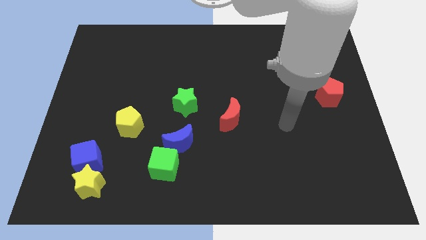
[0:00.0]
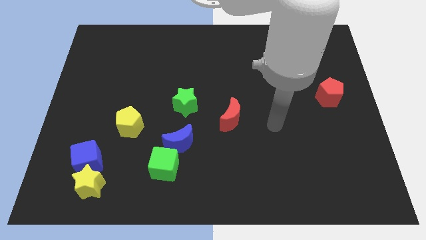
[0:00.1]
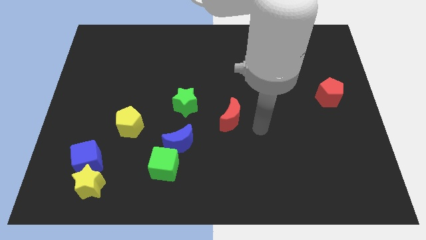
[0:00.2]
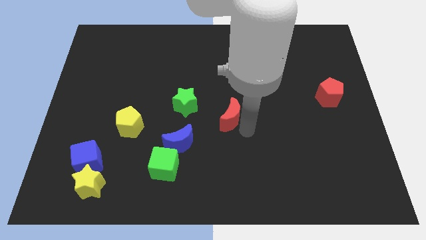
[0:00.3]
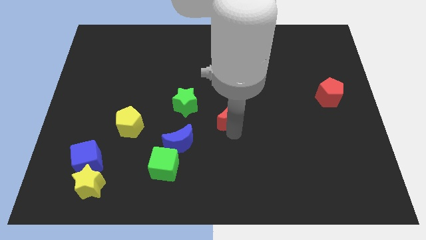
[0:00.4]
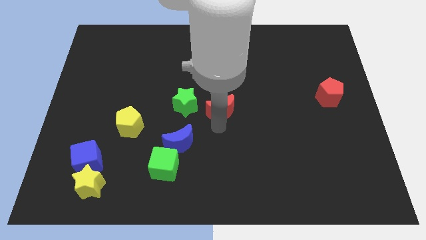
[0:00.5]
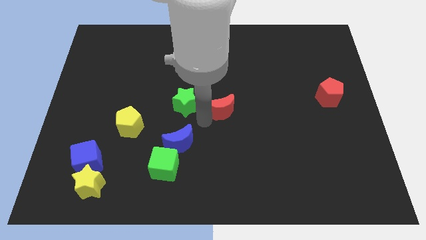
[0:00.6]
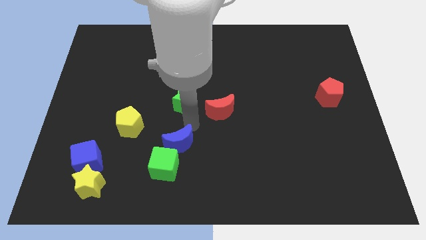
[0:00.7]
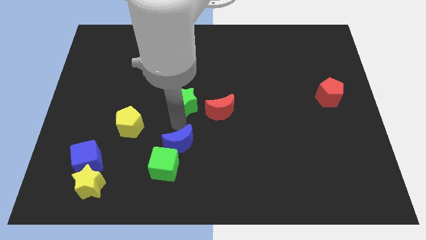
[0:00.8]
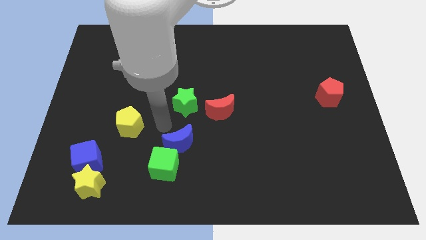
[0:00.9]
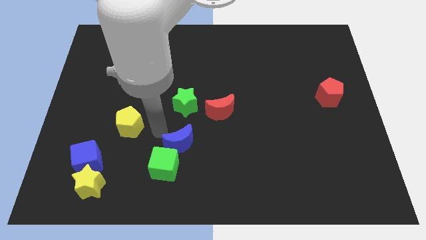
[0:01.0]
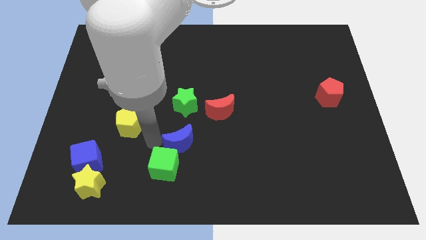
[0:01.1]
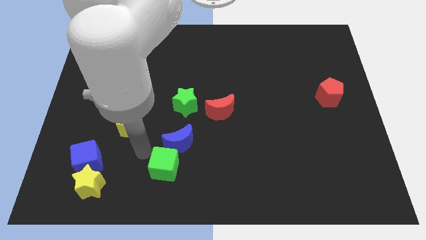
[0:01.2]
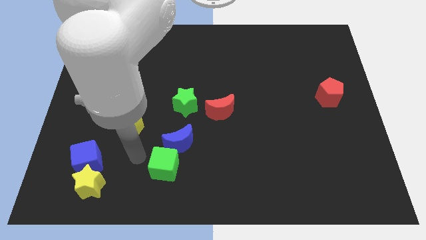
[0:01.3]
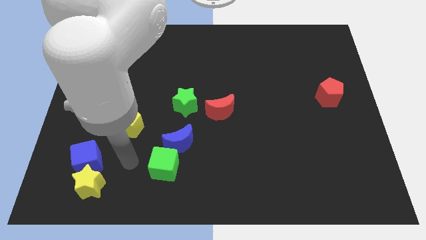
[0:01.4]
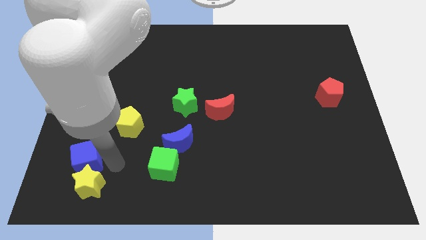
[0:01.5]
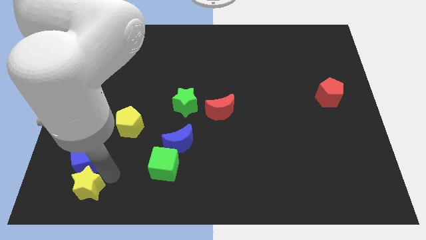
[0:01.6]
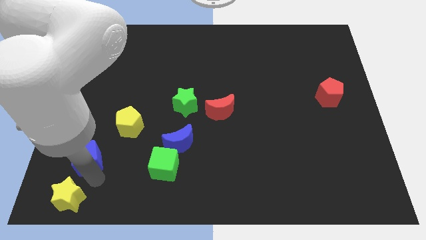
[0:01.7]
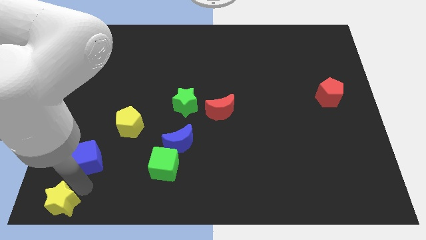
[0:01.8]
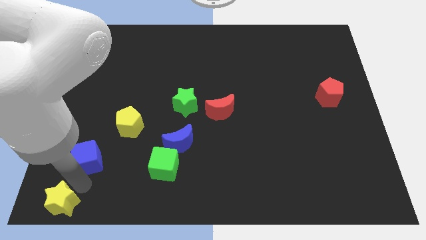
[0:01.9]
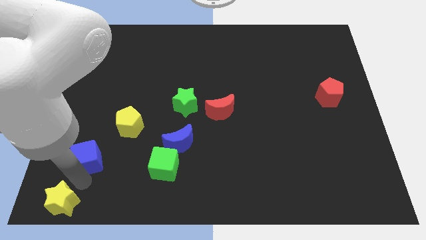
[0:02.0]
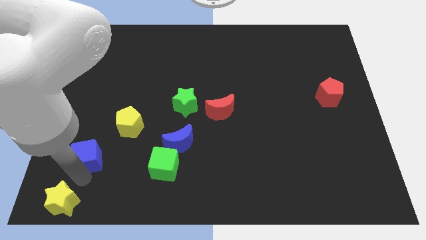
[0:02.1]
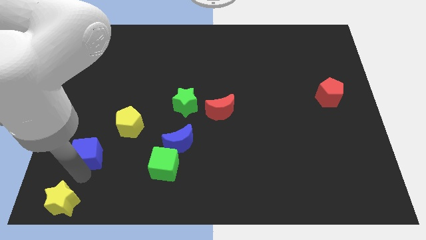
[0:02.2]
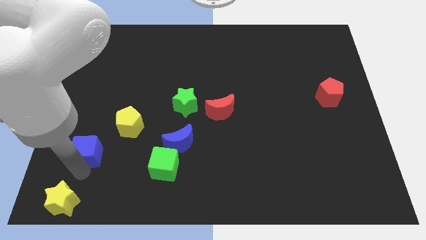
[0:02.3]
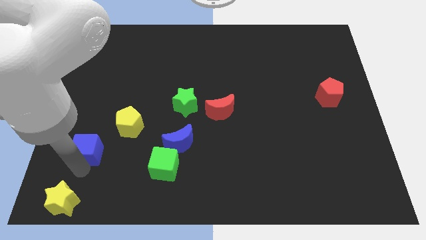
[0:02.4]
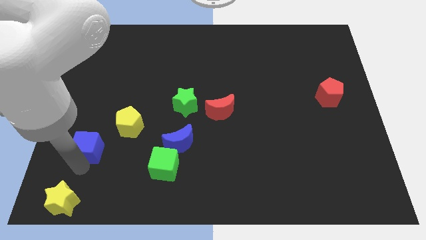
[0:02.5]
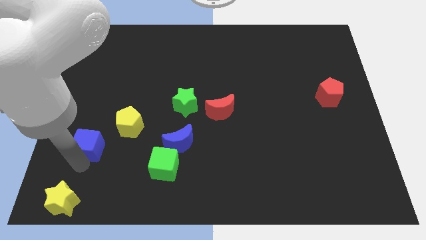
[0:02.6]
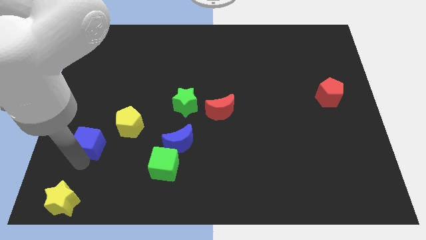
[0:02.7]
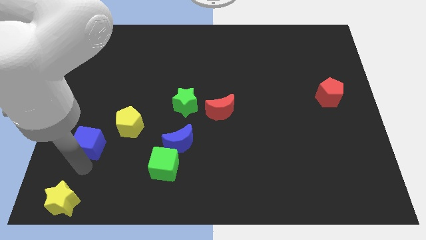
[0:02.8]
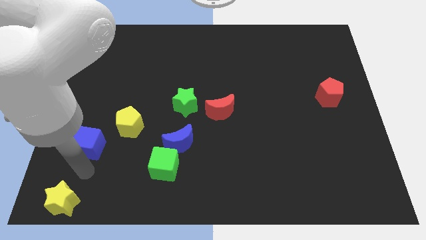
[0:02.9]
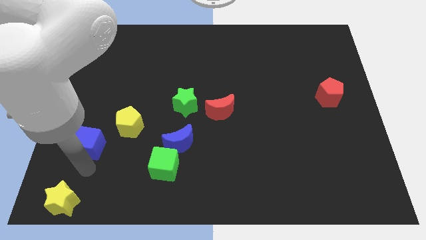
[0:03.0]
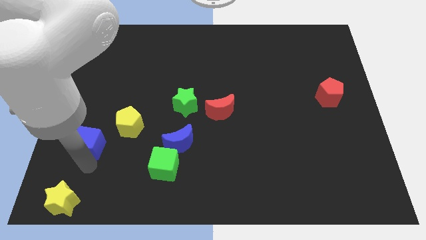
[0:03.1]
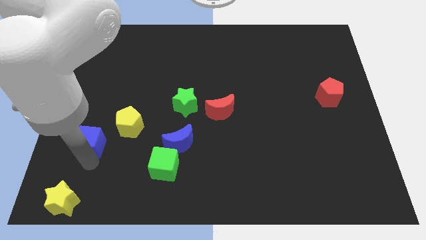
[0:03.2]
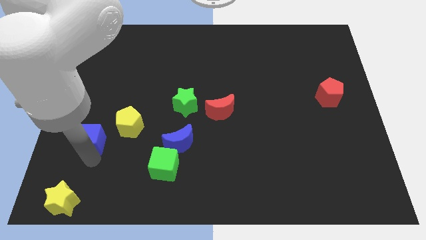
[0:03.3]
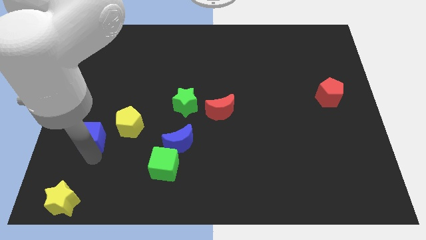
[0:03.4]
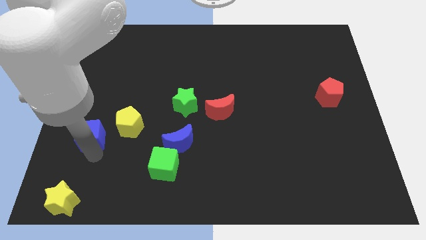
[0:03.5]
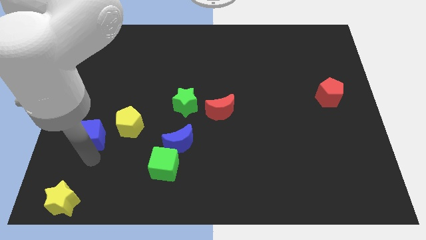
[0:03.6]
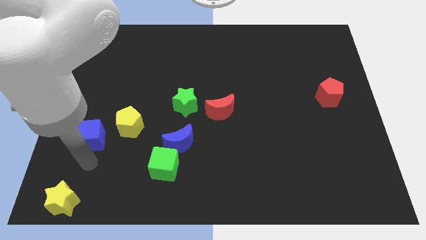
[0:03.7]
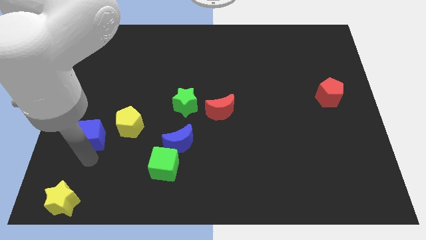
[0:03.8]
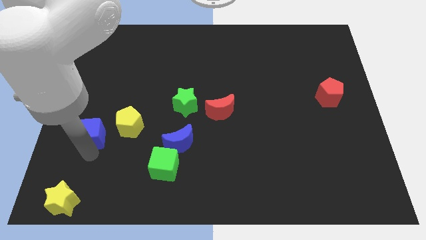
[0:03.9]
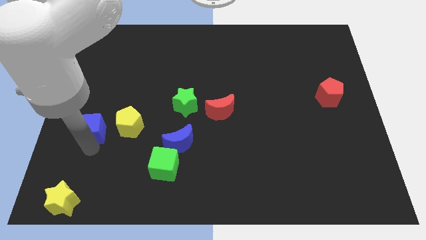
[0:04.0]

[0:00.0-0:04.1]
slide the blue cube up somewhat

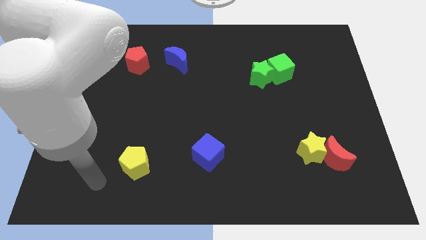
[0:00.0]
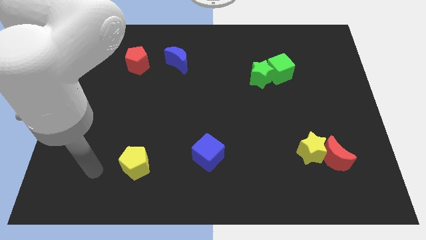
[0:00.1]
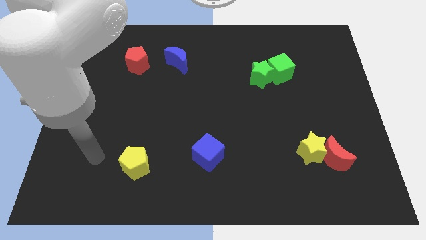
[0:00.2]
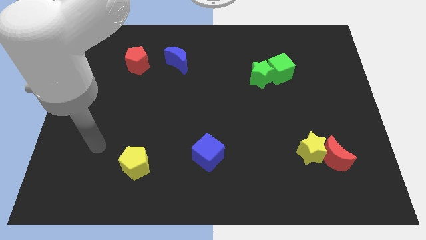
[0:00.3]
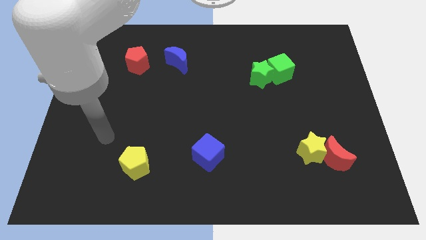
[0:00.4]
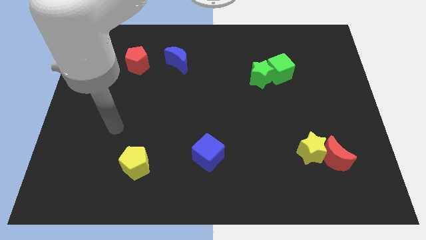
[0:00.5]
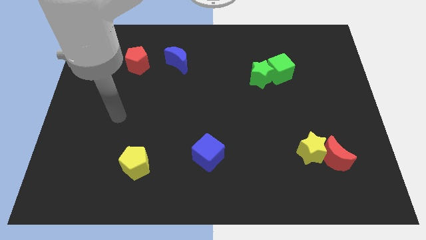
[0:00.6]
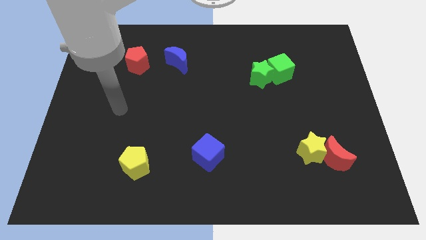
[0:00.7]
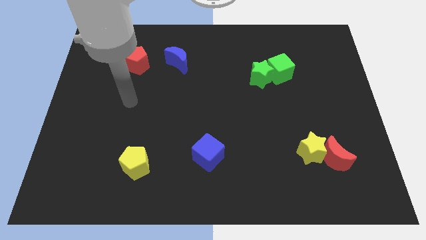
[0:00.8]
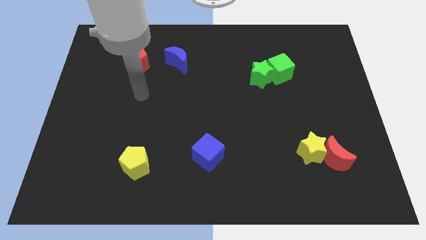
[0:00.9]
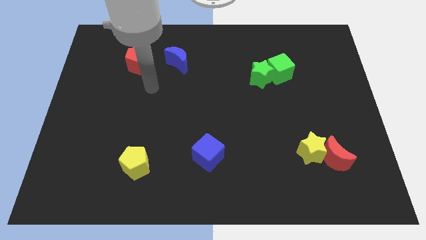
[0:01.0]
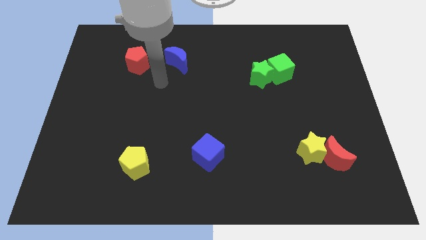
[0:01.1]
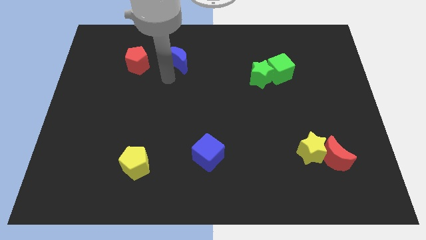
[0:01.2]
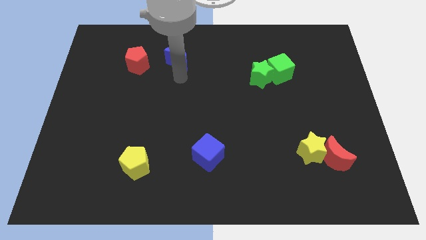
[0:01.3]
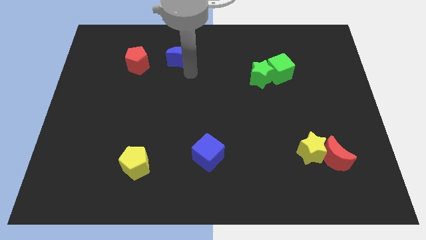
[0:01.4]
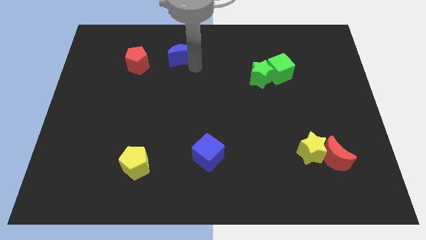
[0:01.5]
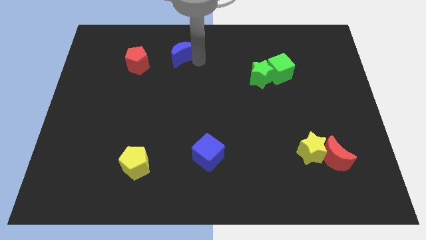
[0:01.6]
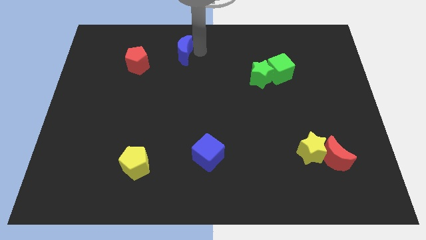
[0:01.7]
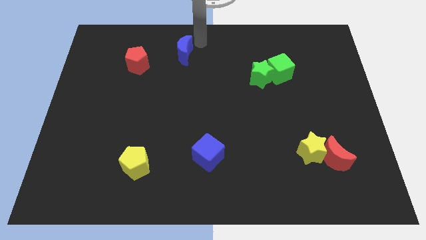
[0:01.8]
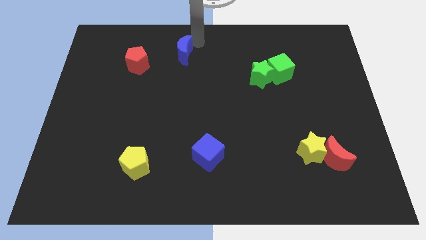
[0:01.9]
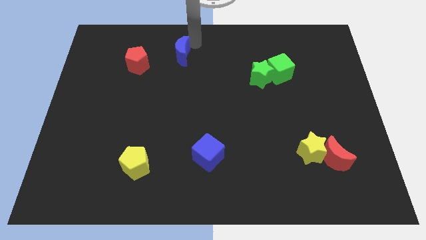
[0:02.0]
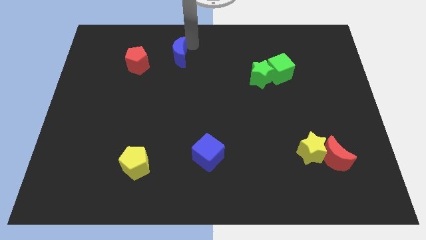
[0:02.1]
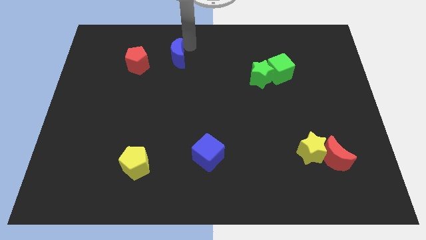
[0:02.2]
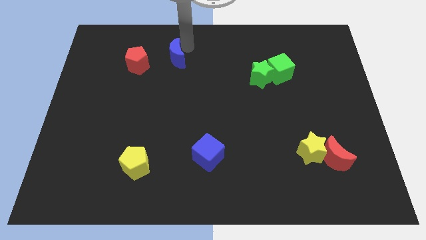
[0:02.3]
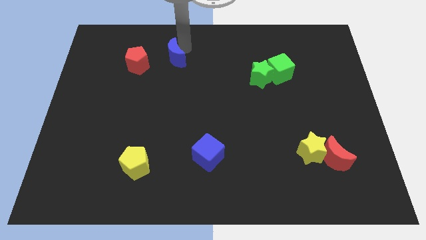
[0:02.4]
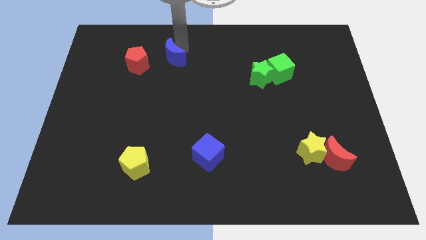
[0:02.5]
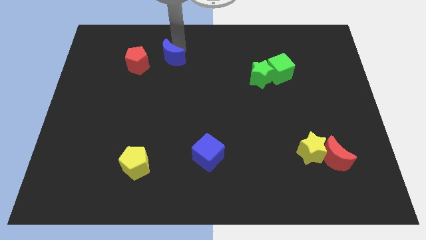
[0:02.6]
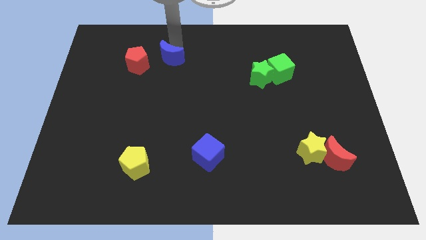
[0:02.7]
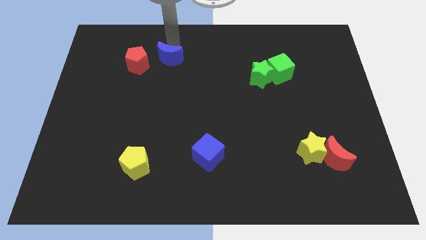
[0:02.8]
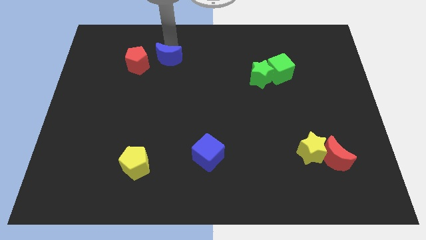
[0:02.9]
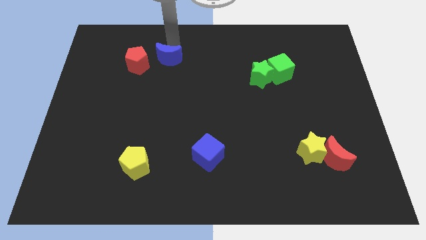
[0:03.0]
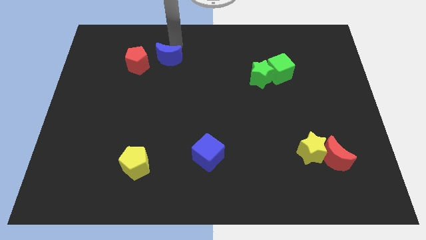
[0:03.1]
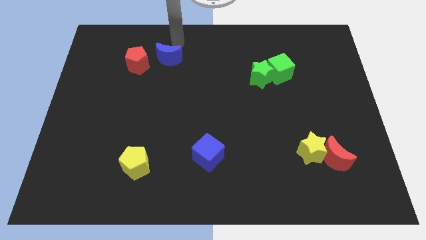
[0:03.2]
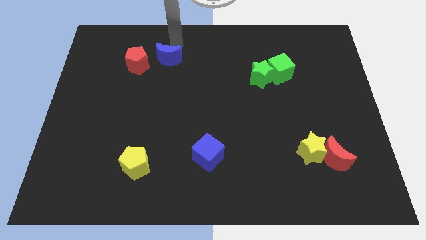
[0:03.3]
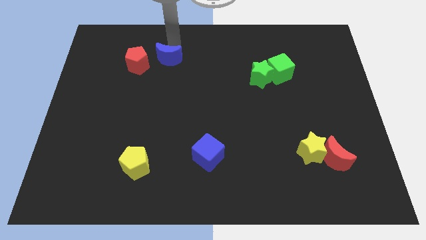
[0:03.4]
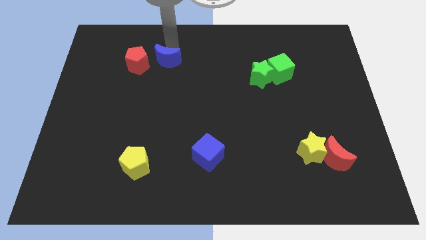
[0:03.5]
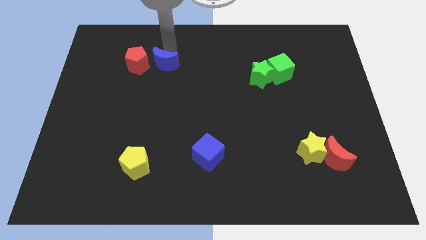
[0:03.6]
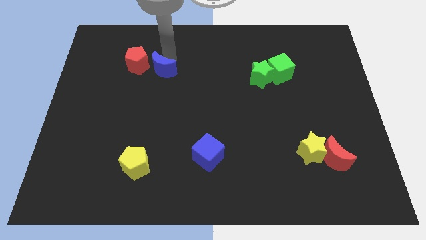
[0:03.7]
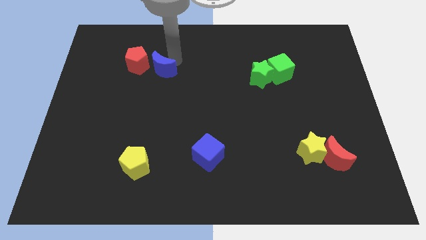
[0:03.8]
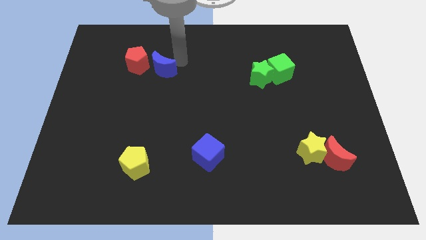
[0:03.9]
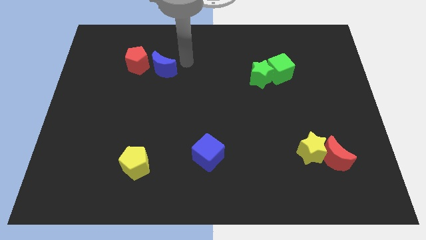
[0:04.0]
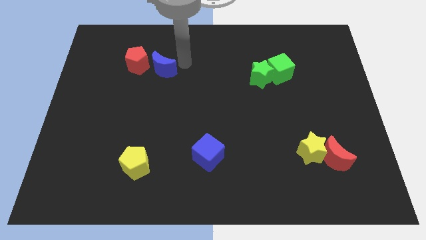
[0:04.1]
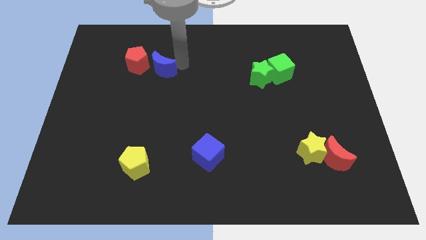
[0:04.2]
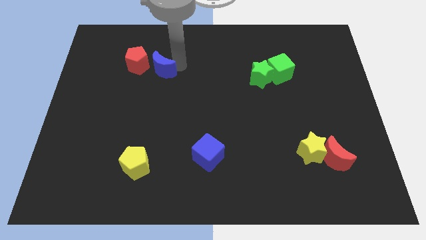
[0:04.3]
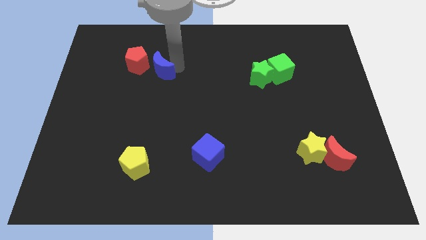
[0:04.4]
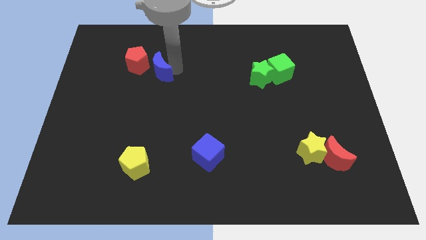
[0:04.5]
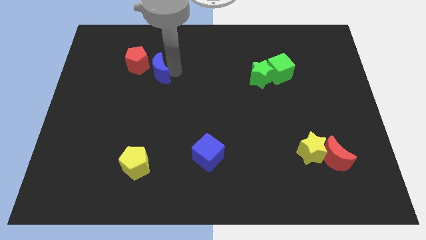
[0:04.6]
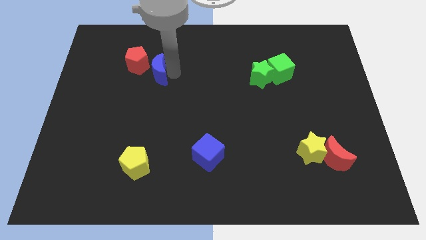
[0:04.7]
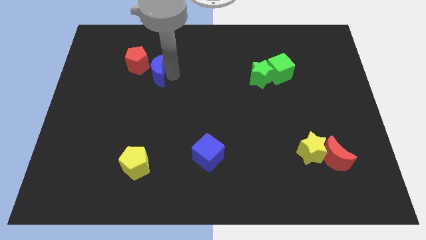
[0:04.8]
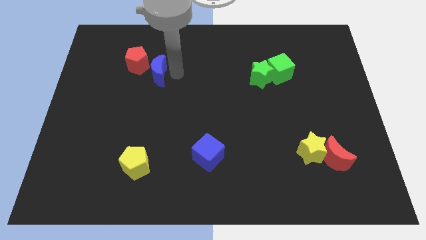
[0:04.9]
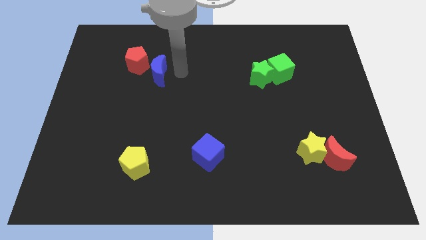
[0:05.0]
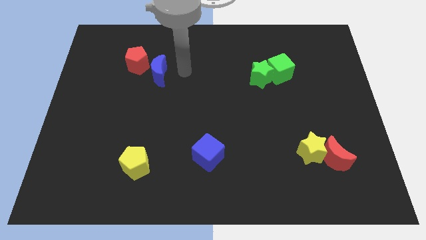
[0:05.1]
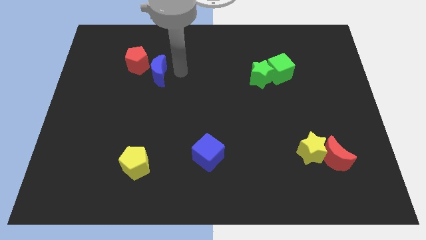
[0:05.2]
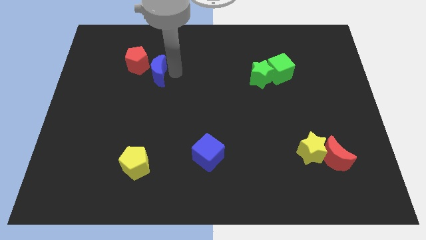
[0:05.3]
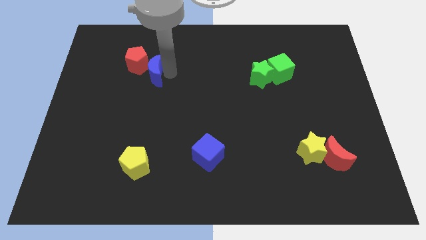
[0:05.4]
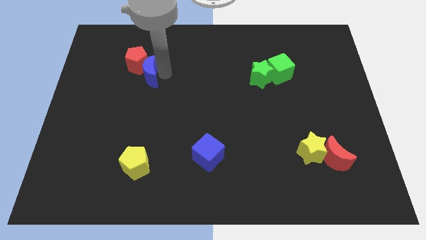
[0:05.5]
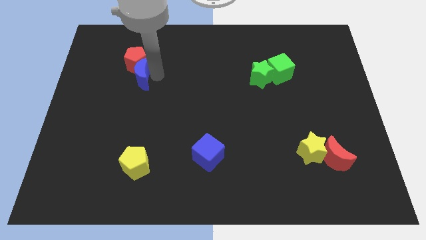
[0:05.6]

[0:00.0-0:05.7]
slide the blue moon a bit left
